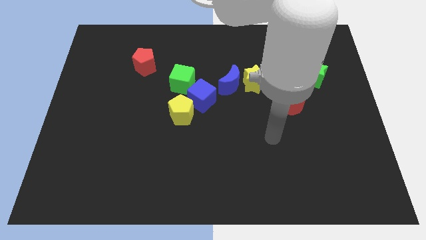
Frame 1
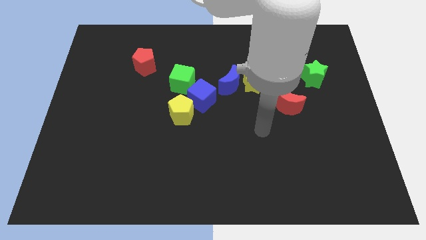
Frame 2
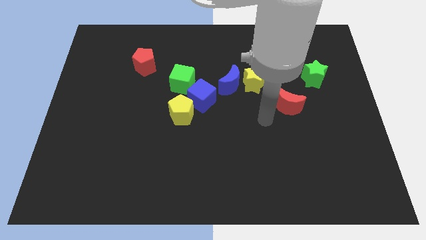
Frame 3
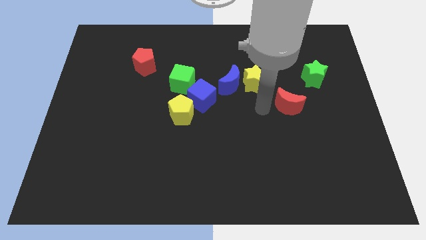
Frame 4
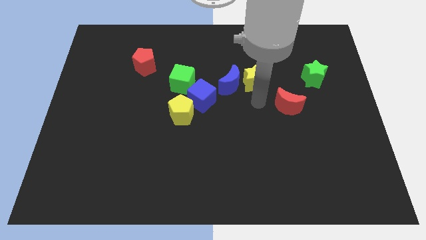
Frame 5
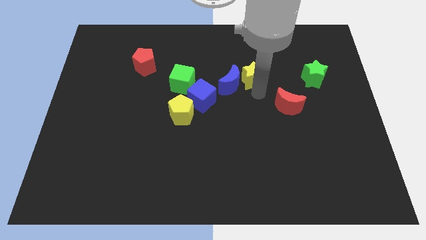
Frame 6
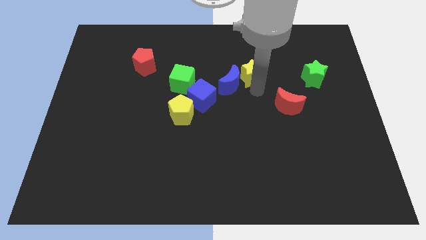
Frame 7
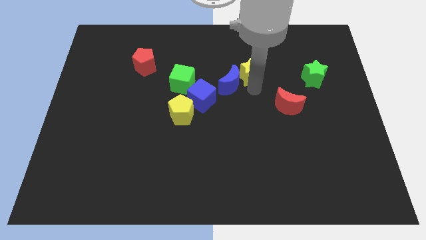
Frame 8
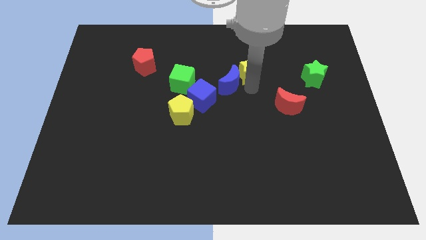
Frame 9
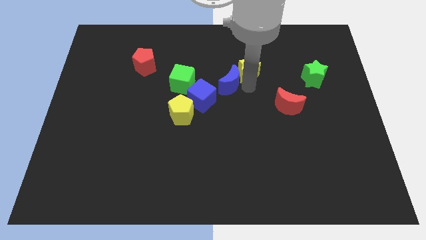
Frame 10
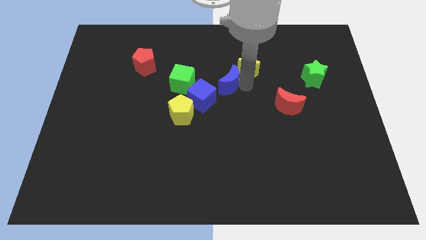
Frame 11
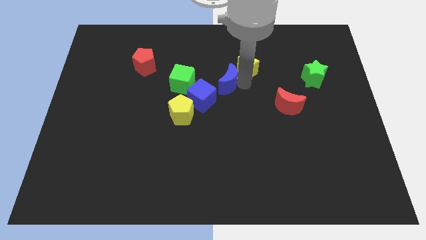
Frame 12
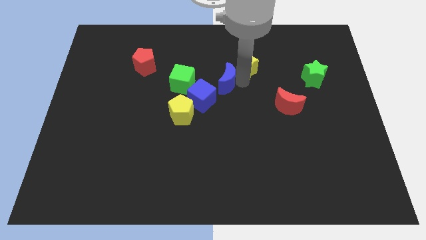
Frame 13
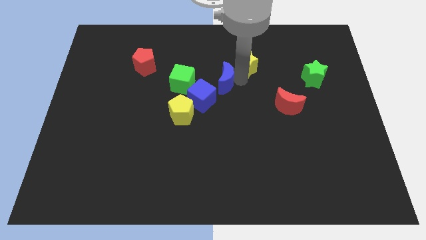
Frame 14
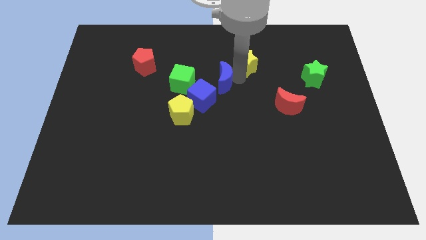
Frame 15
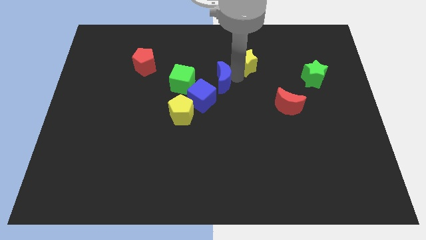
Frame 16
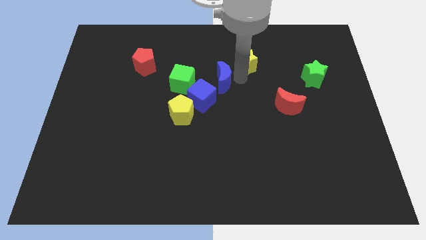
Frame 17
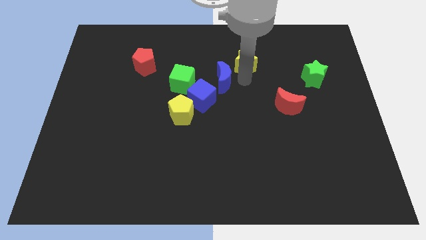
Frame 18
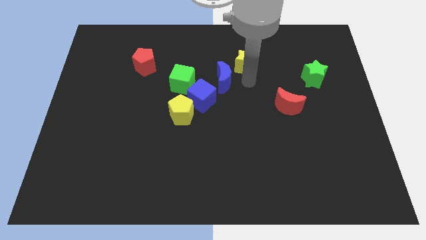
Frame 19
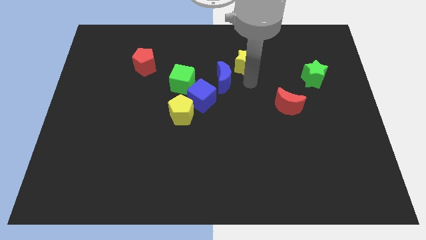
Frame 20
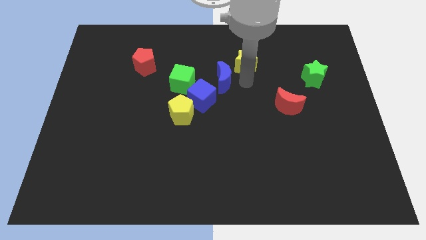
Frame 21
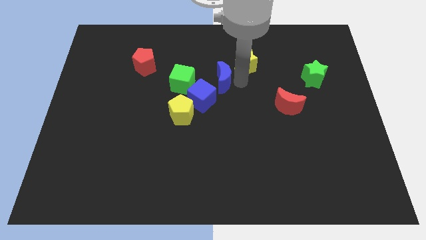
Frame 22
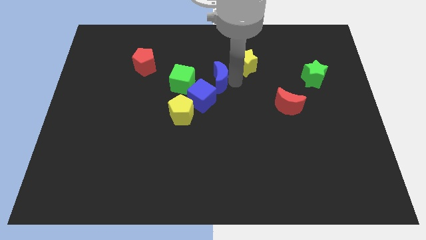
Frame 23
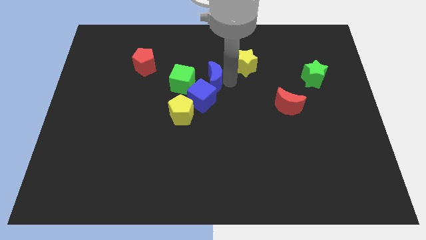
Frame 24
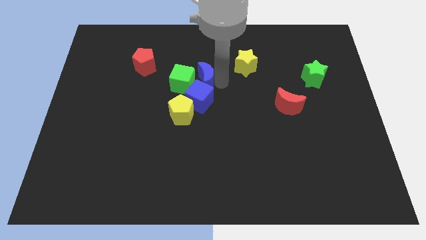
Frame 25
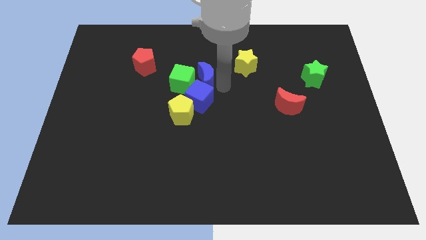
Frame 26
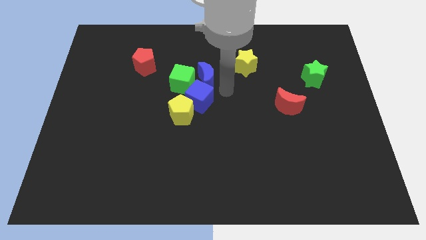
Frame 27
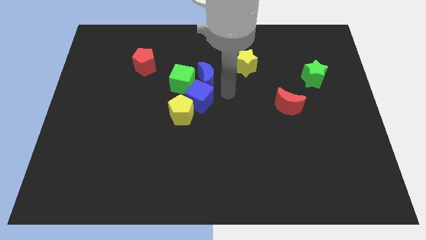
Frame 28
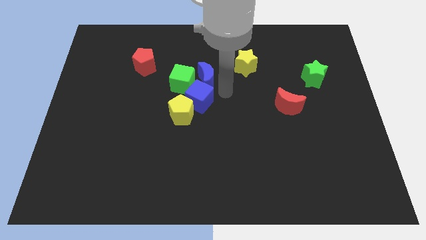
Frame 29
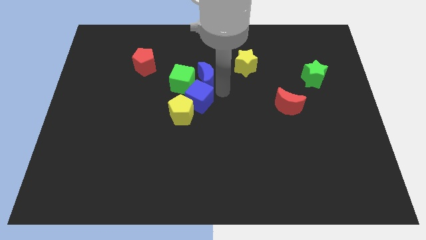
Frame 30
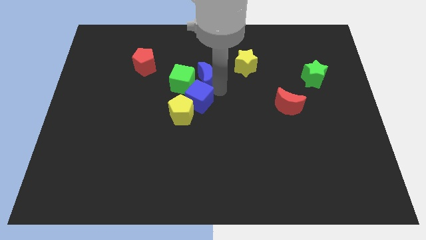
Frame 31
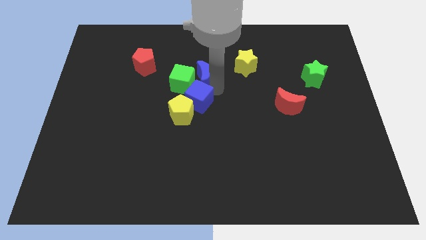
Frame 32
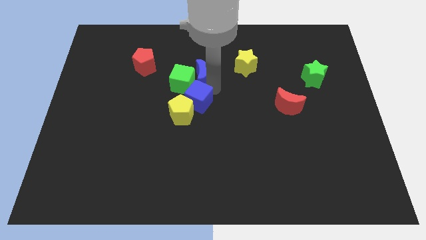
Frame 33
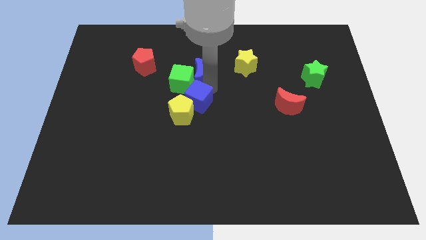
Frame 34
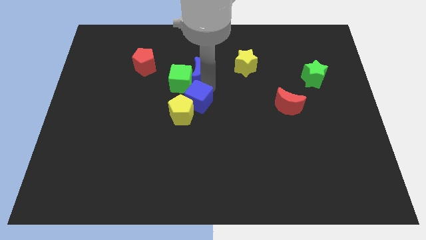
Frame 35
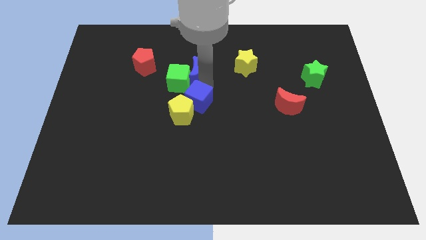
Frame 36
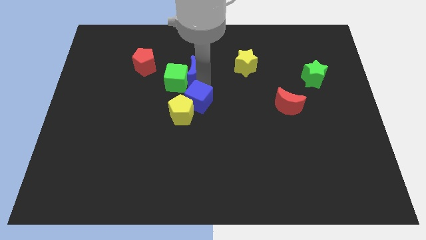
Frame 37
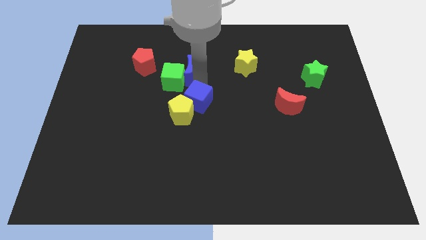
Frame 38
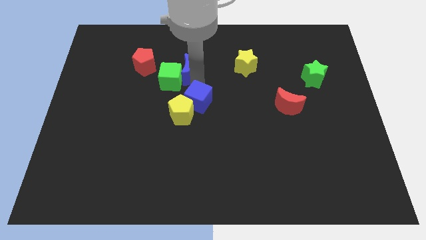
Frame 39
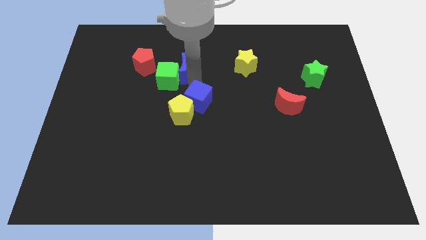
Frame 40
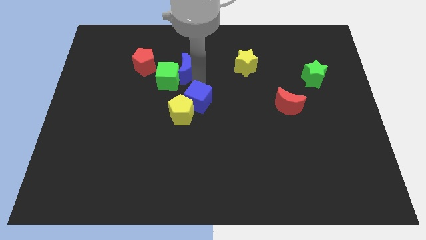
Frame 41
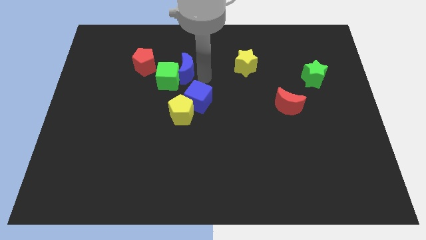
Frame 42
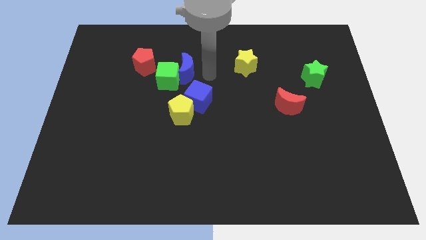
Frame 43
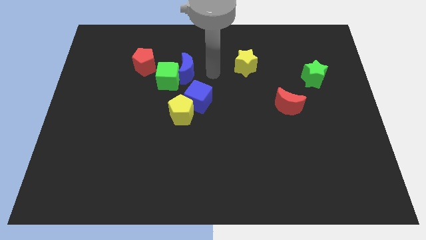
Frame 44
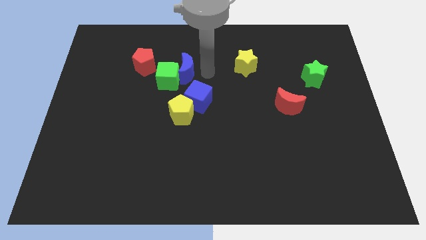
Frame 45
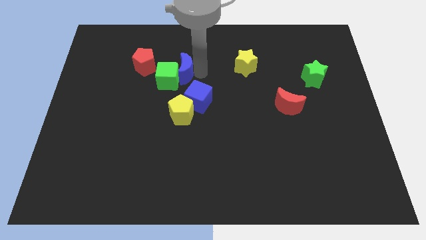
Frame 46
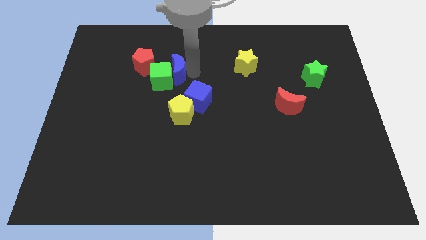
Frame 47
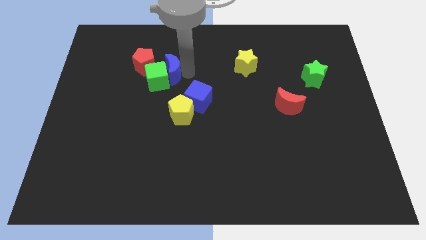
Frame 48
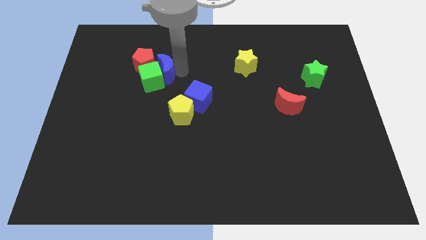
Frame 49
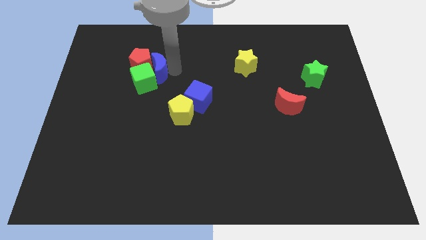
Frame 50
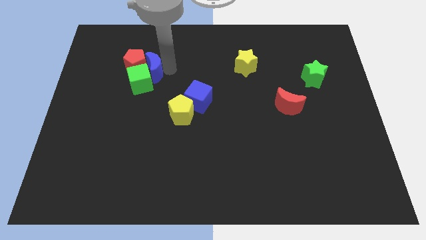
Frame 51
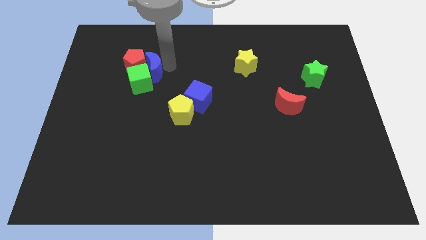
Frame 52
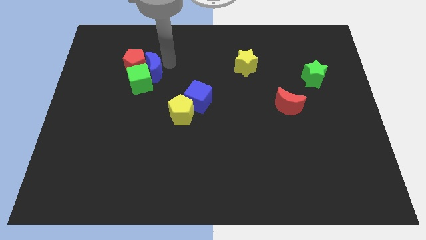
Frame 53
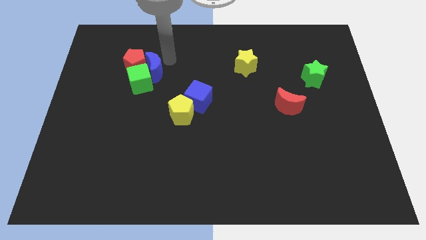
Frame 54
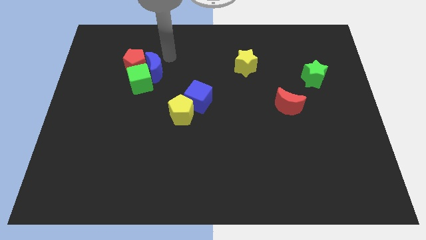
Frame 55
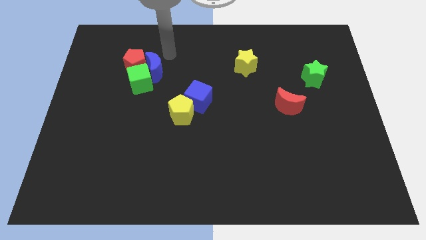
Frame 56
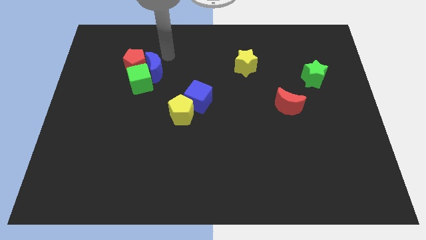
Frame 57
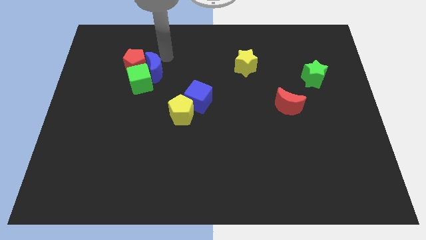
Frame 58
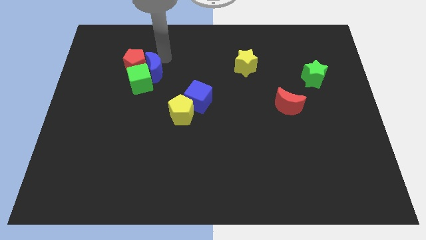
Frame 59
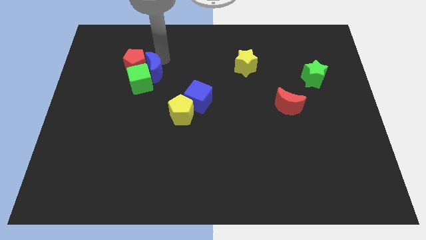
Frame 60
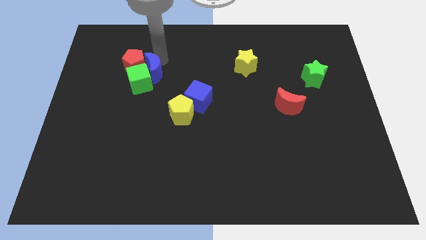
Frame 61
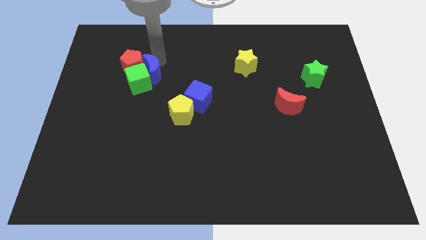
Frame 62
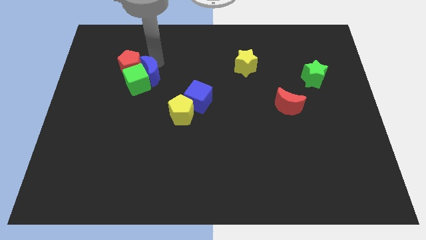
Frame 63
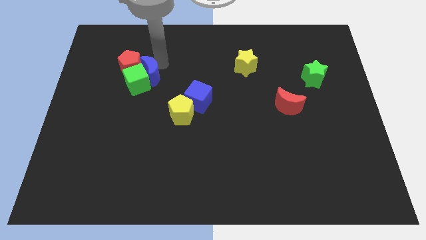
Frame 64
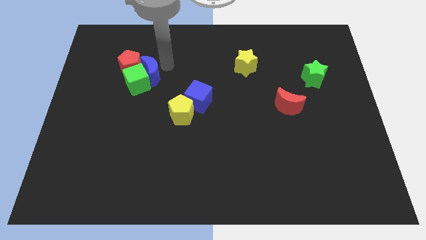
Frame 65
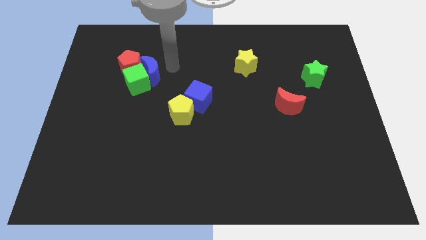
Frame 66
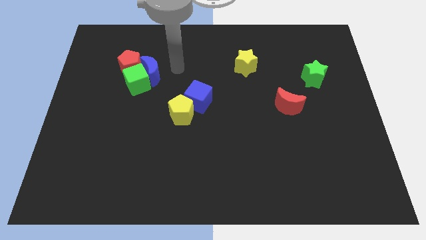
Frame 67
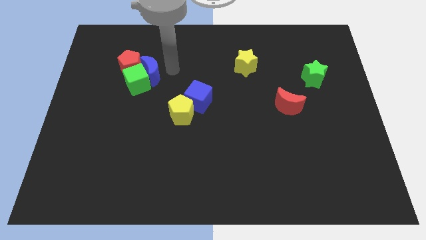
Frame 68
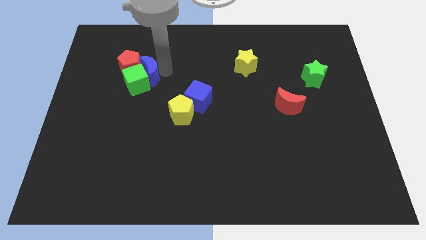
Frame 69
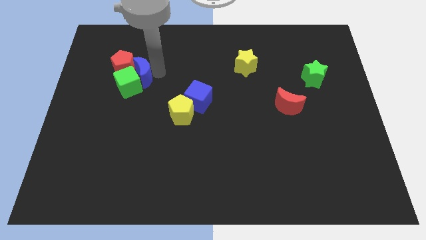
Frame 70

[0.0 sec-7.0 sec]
slide the blue moon to the left

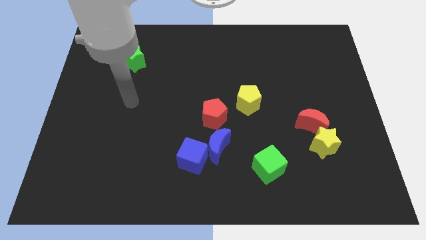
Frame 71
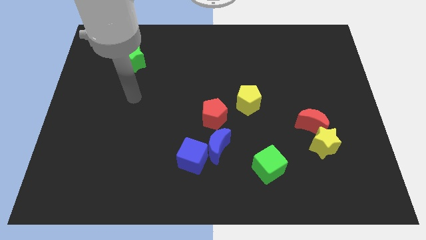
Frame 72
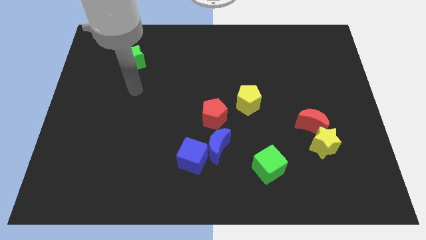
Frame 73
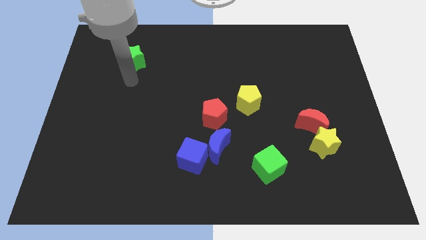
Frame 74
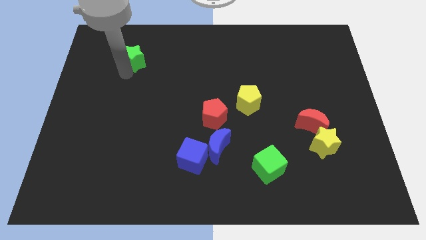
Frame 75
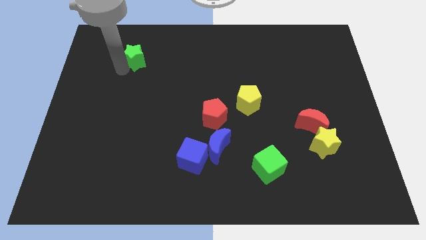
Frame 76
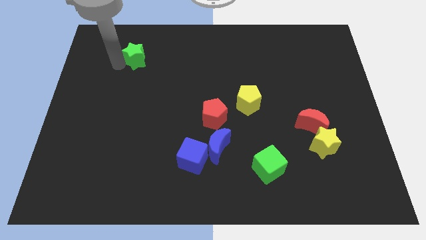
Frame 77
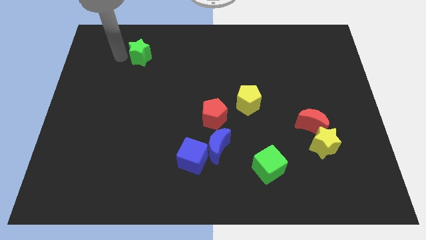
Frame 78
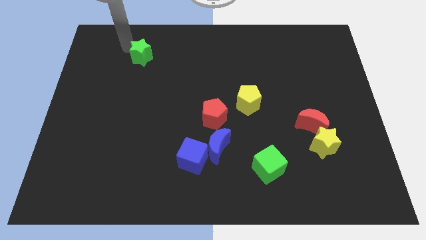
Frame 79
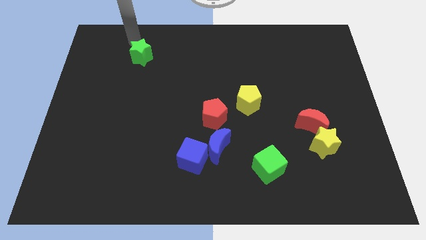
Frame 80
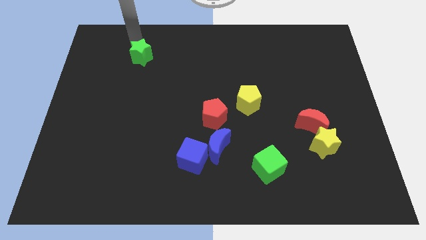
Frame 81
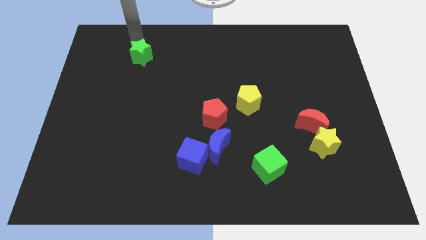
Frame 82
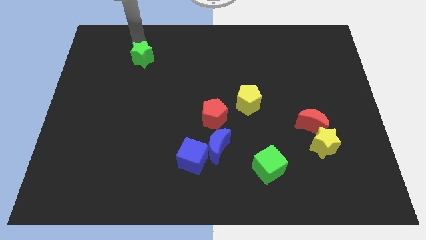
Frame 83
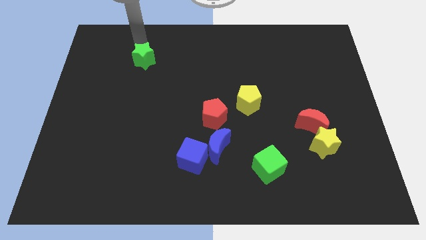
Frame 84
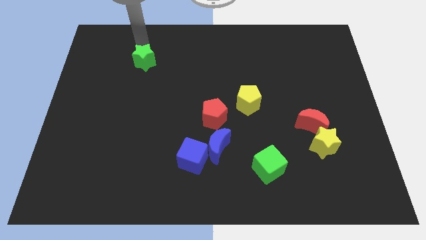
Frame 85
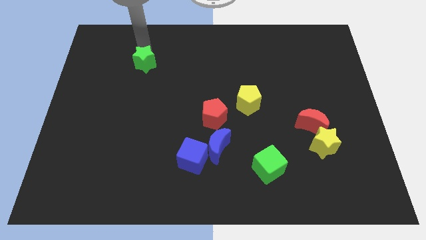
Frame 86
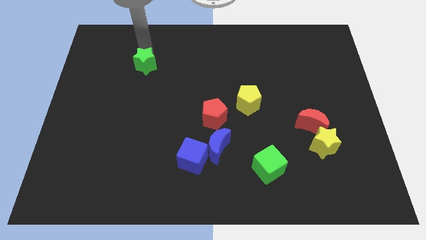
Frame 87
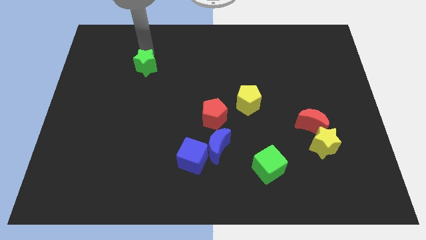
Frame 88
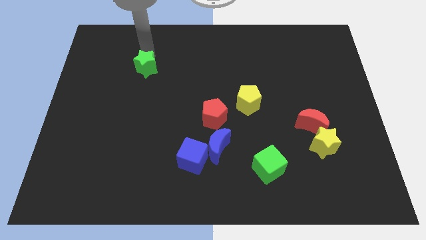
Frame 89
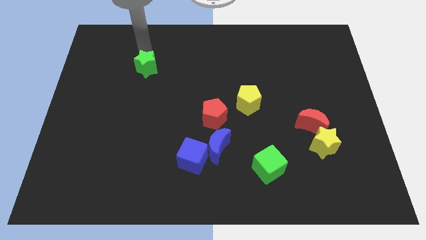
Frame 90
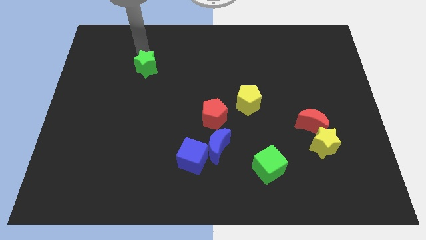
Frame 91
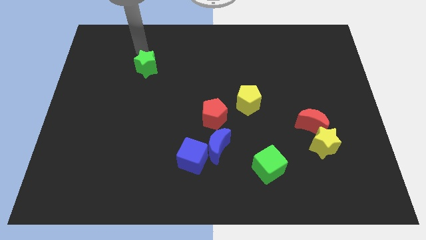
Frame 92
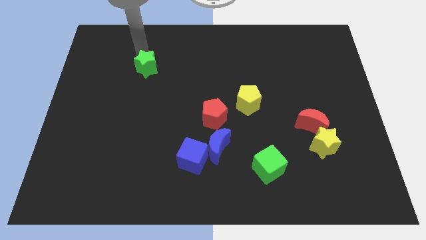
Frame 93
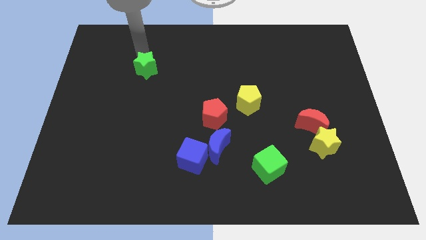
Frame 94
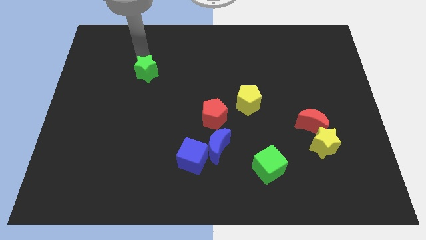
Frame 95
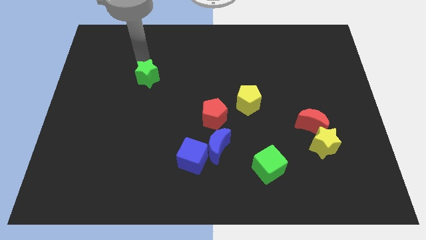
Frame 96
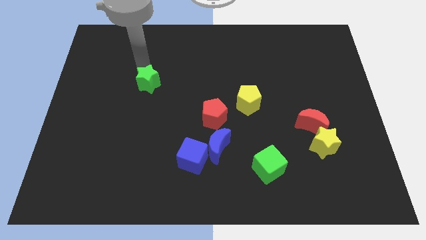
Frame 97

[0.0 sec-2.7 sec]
move the green star a little diagonally down and right
